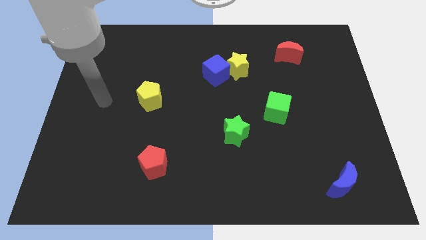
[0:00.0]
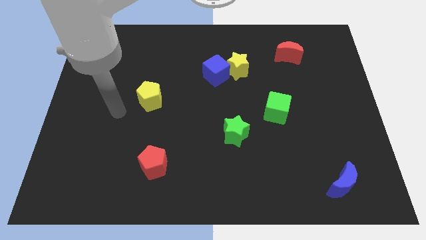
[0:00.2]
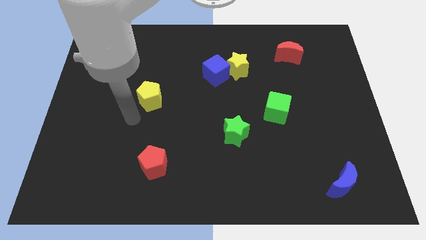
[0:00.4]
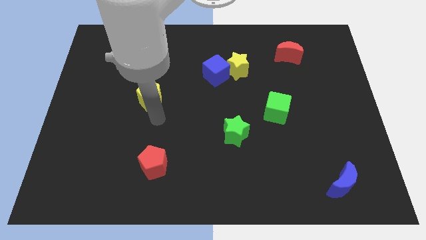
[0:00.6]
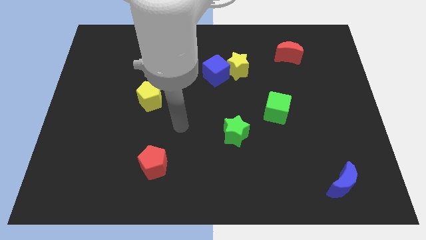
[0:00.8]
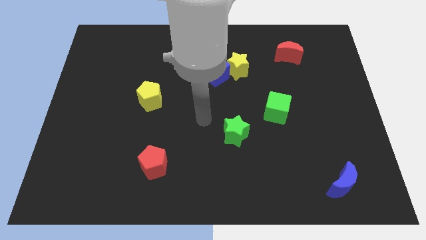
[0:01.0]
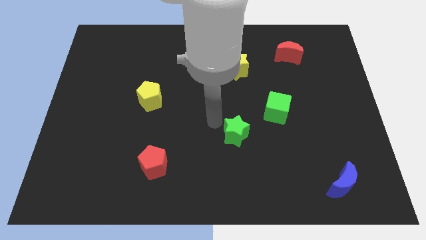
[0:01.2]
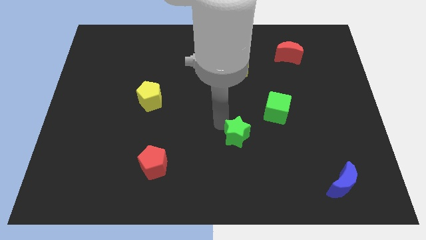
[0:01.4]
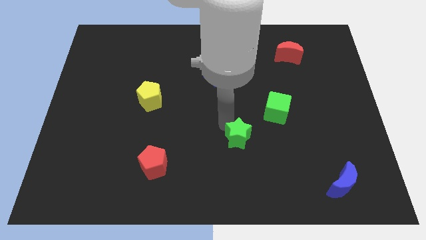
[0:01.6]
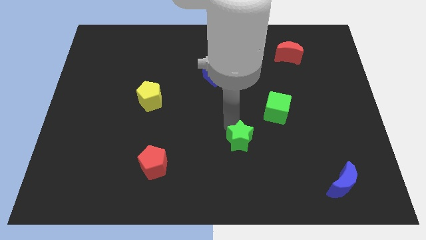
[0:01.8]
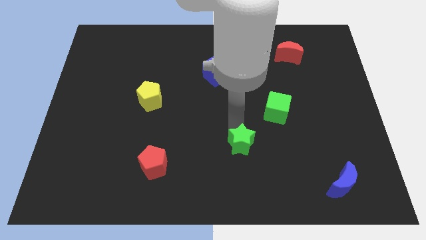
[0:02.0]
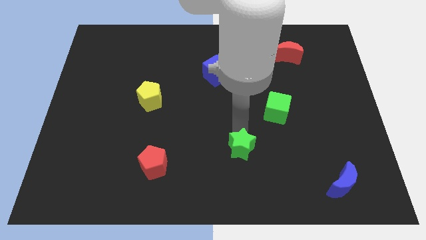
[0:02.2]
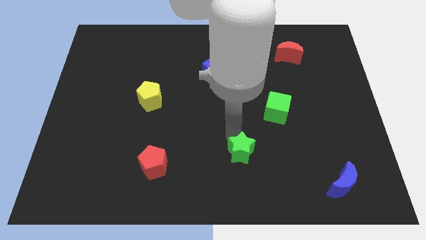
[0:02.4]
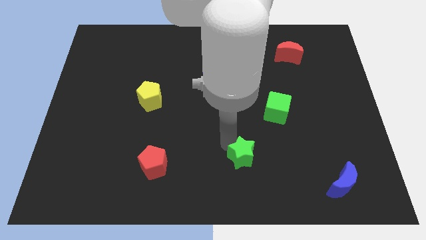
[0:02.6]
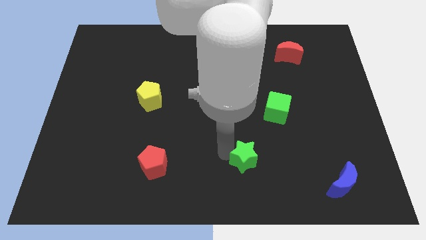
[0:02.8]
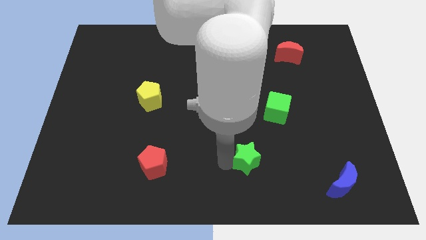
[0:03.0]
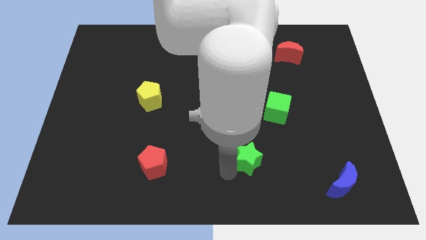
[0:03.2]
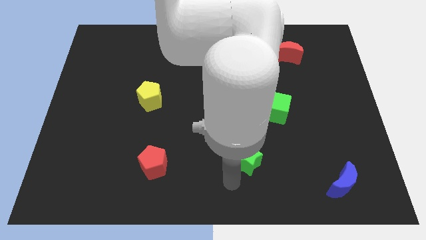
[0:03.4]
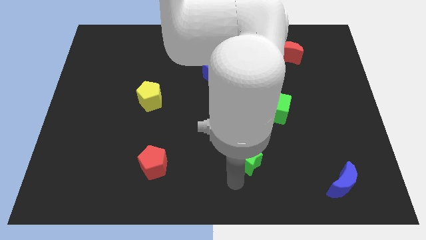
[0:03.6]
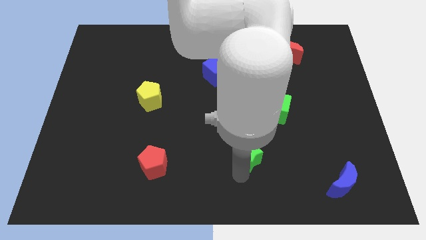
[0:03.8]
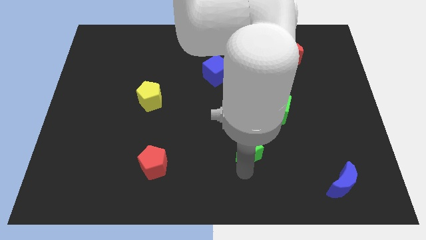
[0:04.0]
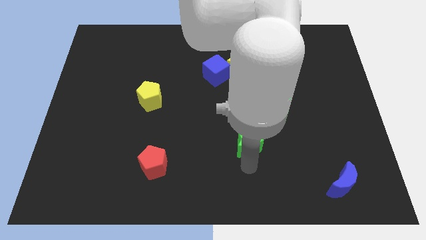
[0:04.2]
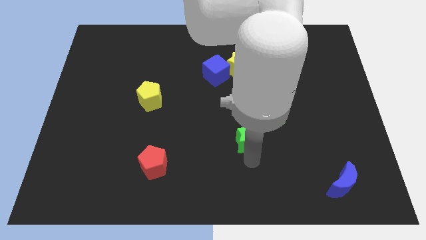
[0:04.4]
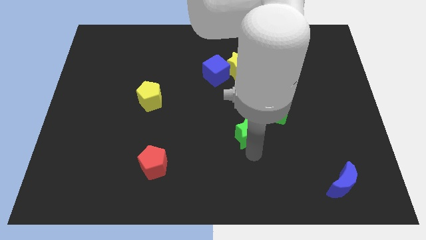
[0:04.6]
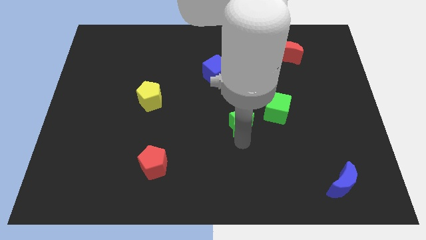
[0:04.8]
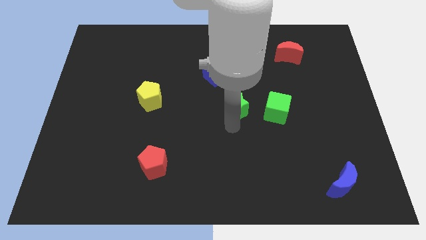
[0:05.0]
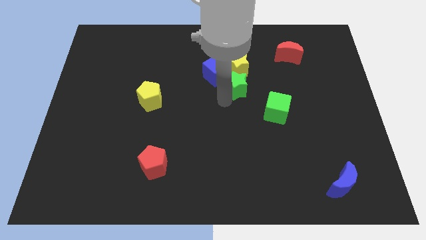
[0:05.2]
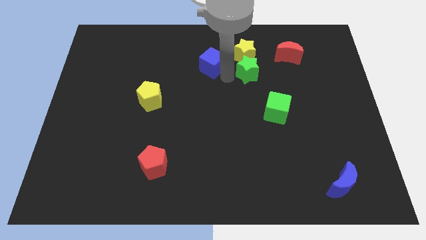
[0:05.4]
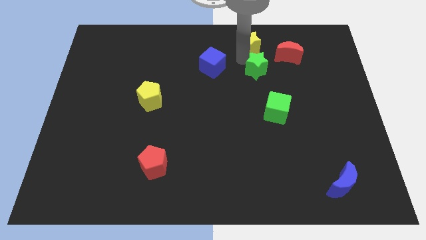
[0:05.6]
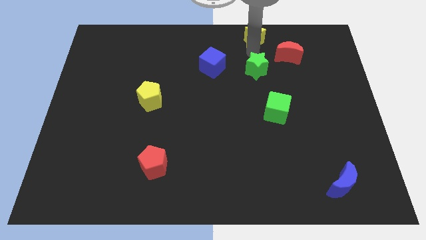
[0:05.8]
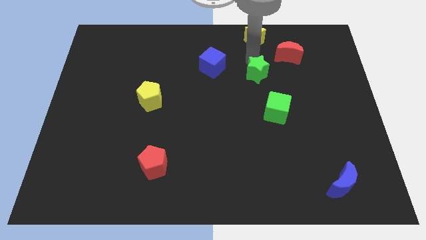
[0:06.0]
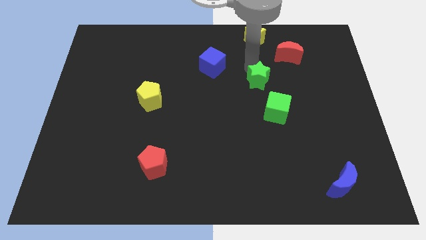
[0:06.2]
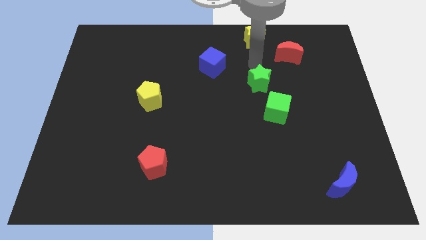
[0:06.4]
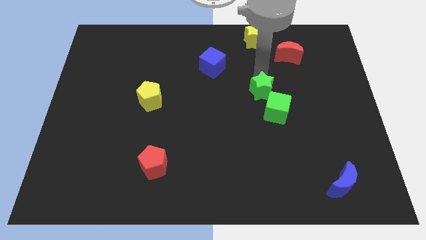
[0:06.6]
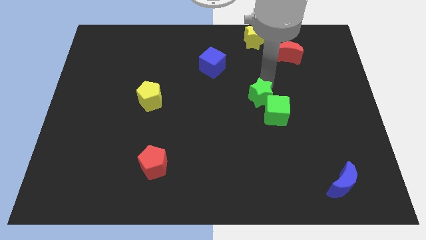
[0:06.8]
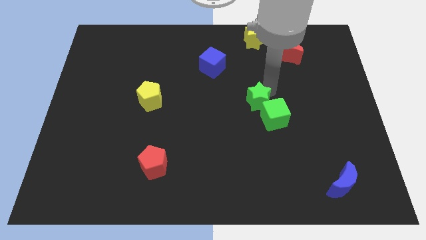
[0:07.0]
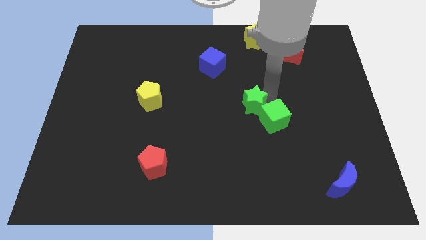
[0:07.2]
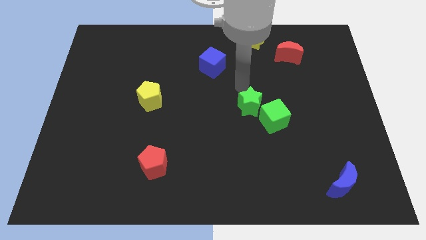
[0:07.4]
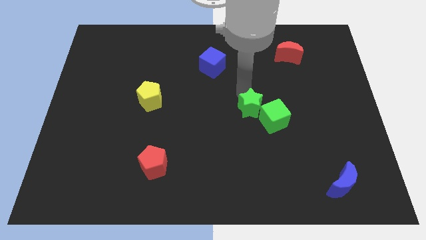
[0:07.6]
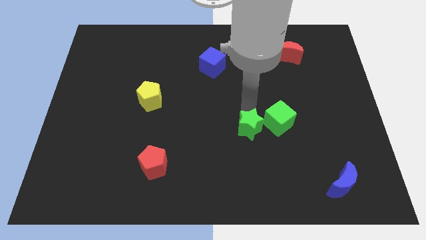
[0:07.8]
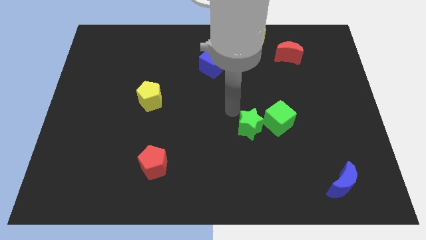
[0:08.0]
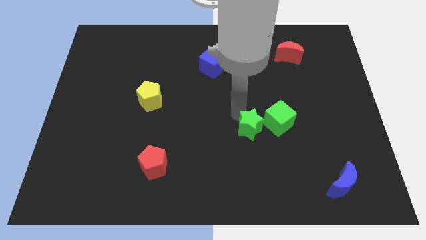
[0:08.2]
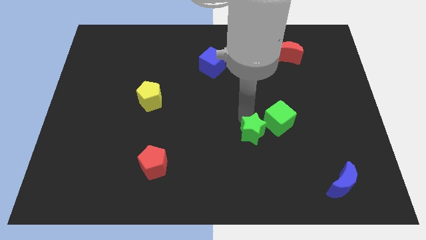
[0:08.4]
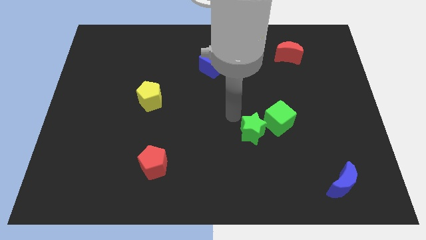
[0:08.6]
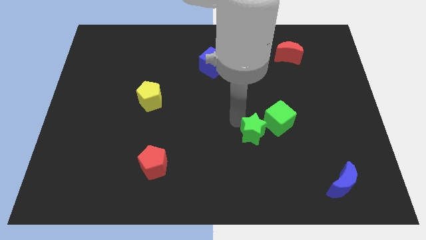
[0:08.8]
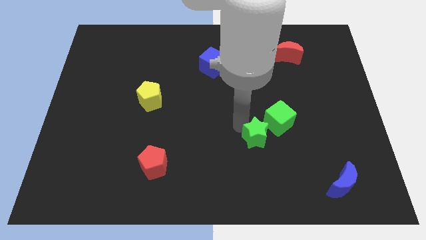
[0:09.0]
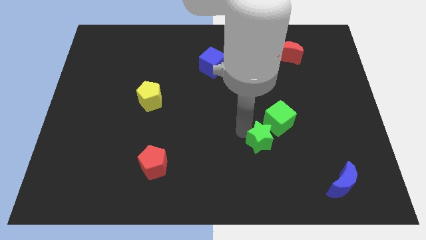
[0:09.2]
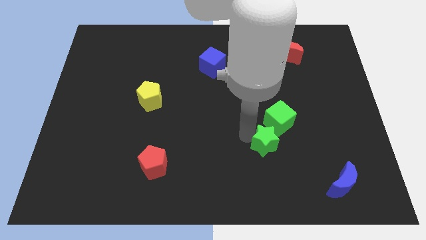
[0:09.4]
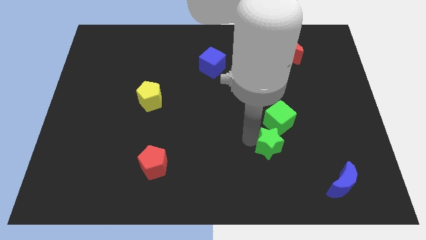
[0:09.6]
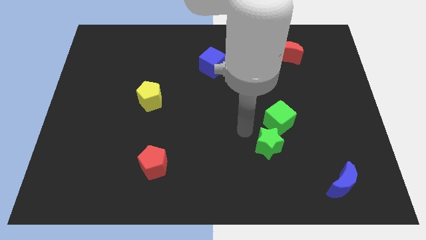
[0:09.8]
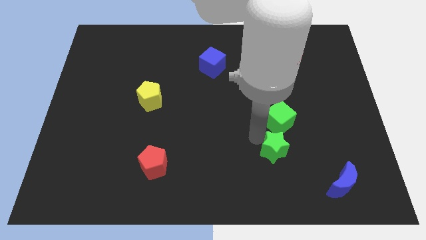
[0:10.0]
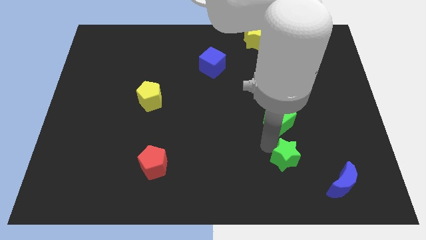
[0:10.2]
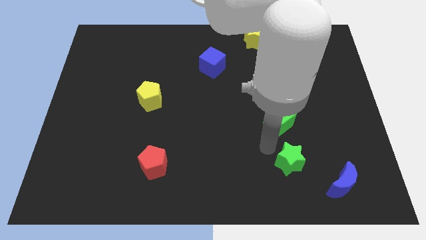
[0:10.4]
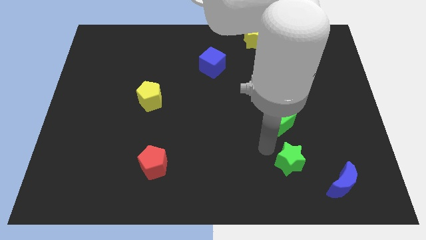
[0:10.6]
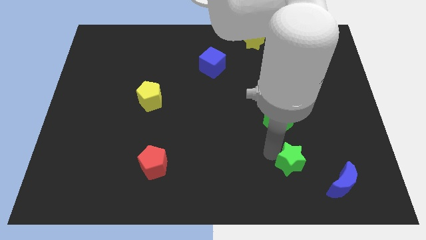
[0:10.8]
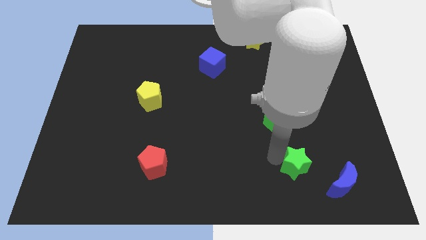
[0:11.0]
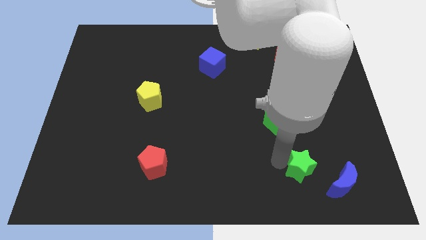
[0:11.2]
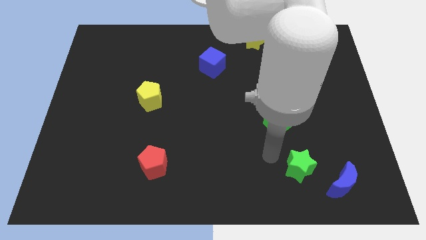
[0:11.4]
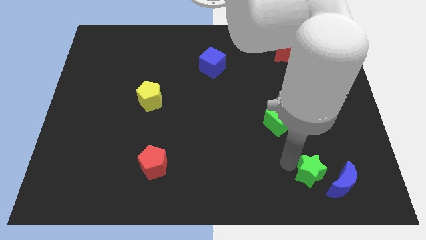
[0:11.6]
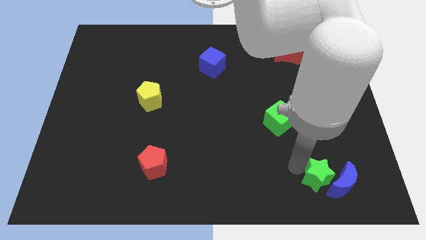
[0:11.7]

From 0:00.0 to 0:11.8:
slide the green star next to the blue moon

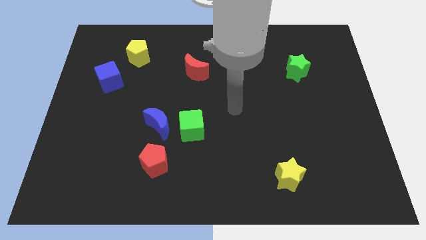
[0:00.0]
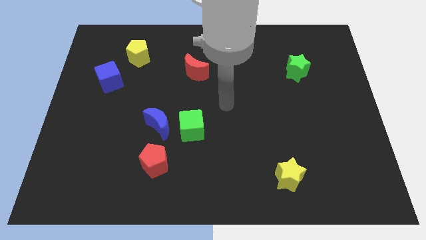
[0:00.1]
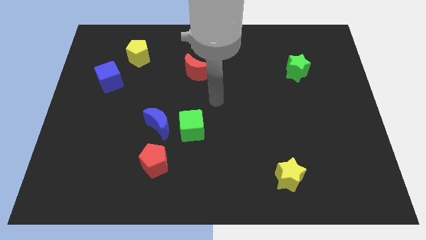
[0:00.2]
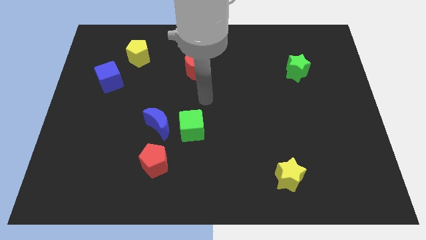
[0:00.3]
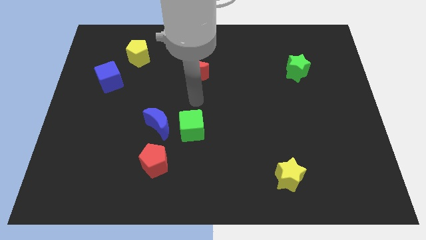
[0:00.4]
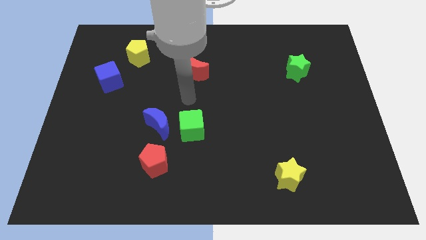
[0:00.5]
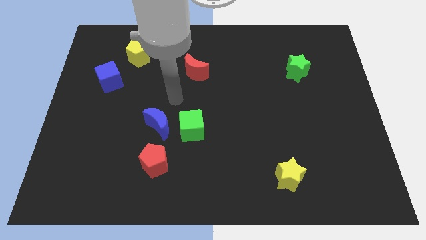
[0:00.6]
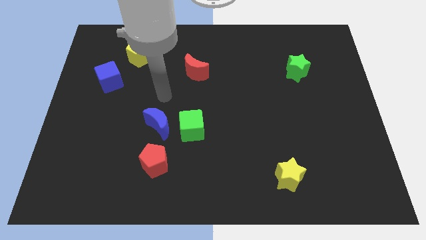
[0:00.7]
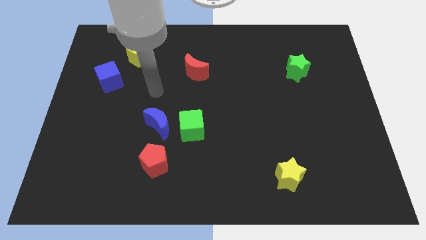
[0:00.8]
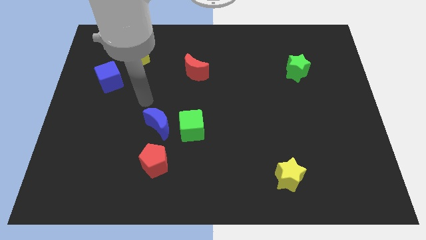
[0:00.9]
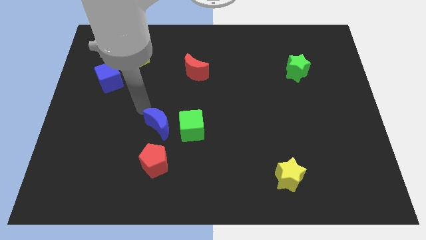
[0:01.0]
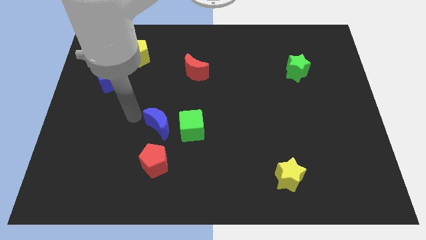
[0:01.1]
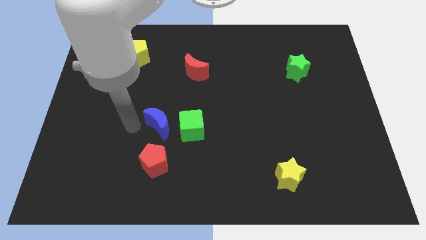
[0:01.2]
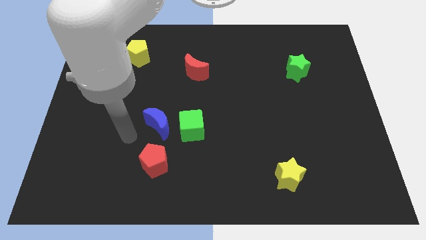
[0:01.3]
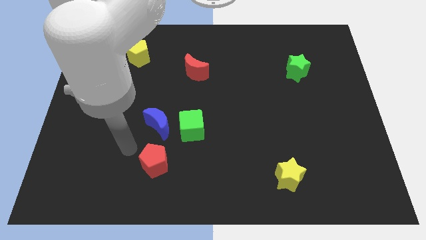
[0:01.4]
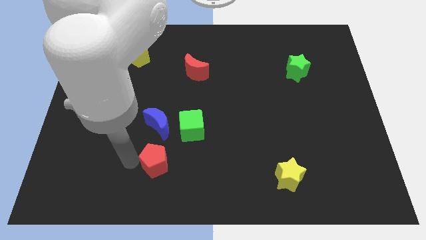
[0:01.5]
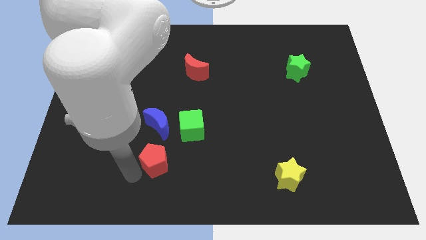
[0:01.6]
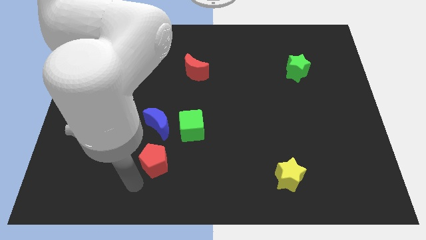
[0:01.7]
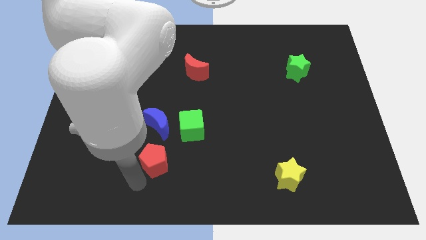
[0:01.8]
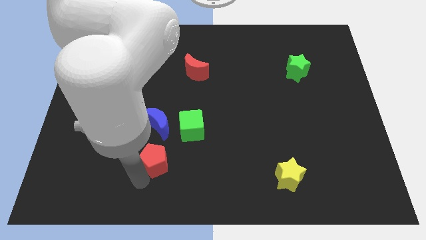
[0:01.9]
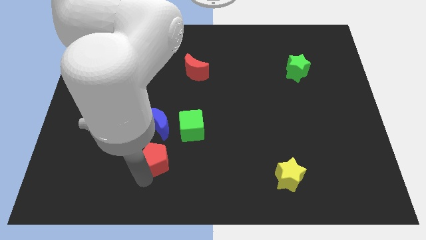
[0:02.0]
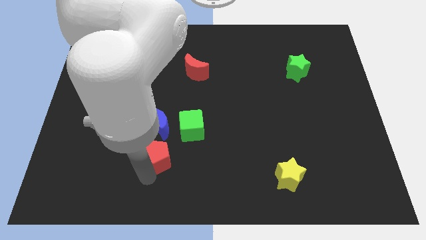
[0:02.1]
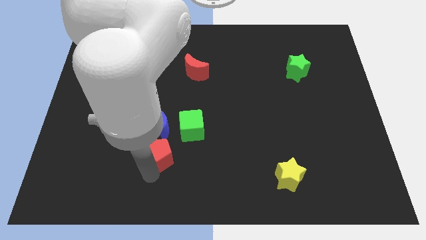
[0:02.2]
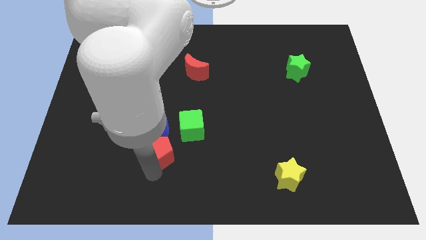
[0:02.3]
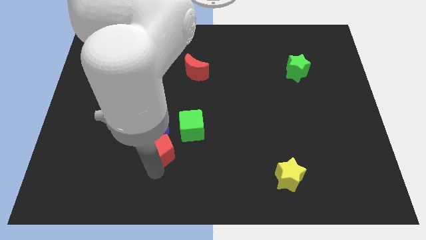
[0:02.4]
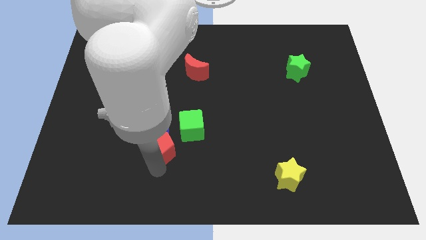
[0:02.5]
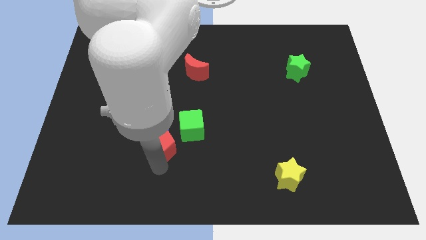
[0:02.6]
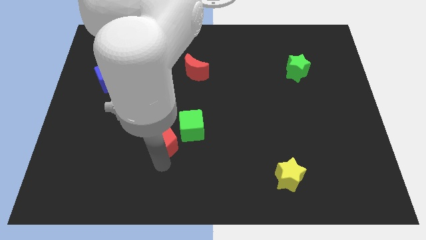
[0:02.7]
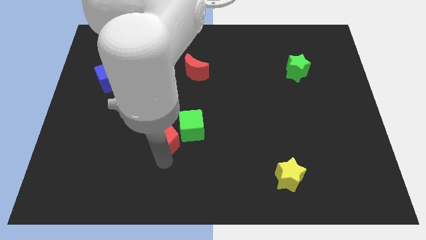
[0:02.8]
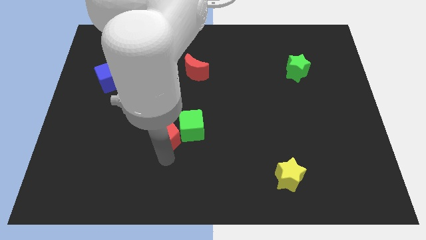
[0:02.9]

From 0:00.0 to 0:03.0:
put the red pentagon to the green cube
